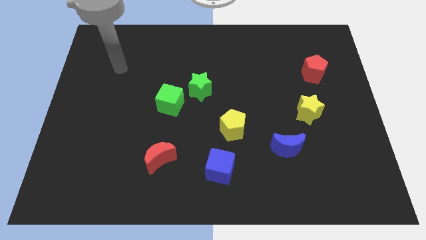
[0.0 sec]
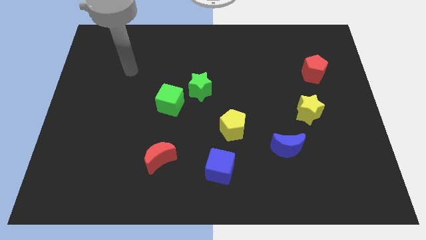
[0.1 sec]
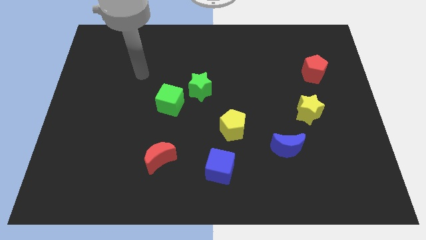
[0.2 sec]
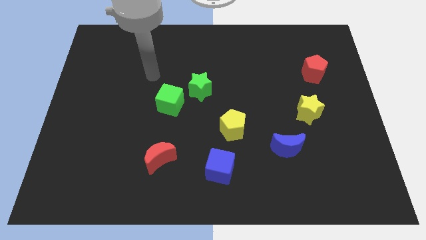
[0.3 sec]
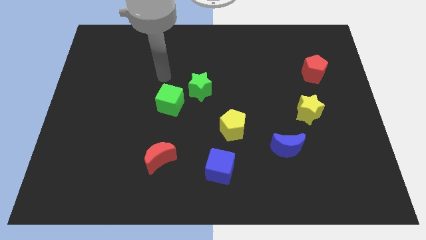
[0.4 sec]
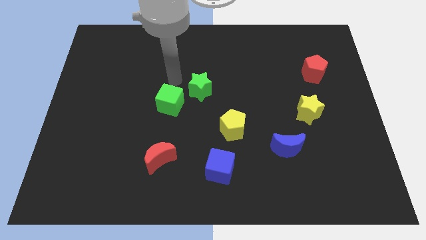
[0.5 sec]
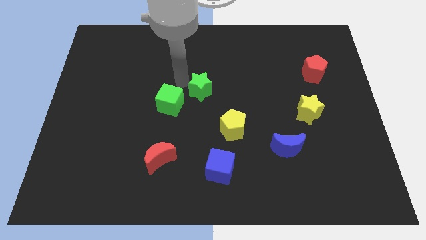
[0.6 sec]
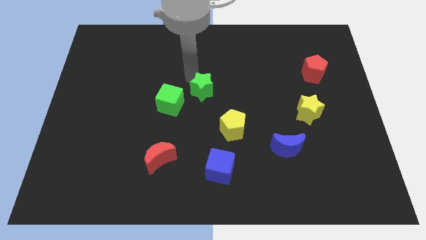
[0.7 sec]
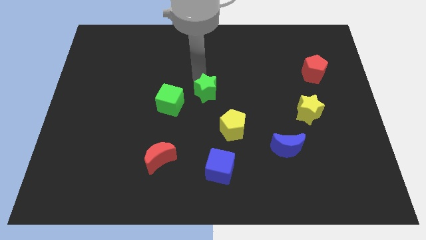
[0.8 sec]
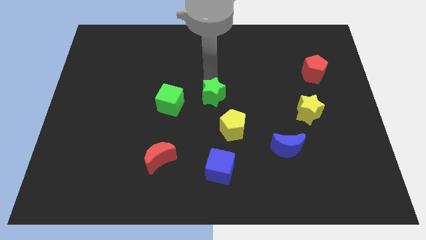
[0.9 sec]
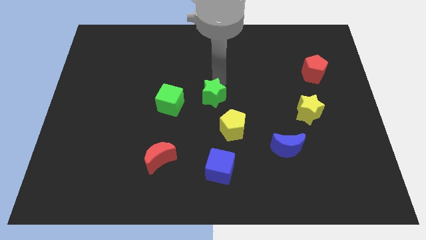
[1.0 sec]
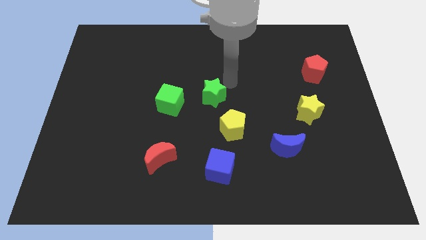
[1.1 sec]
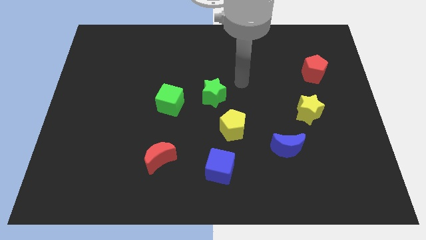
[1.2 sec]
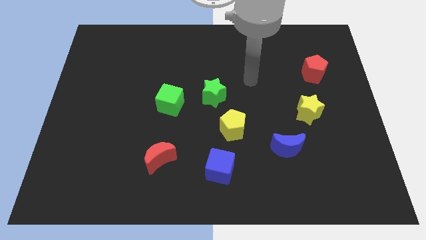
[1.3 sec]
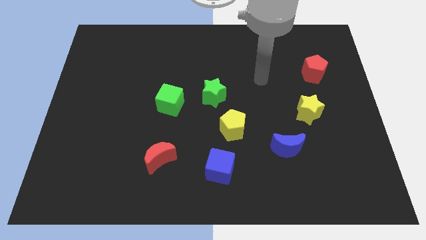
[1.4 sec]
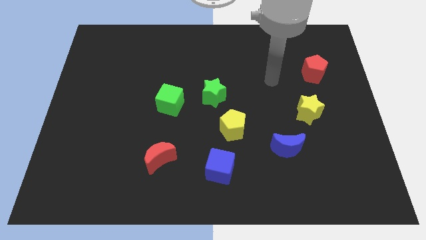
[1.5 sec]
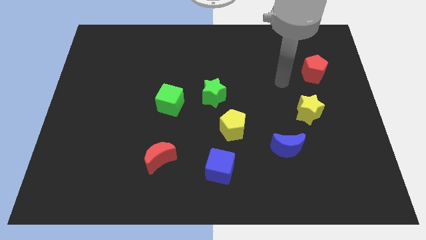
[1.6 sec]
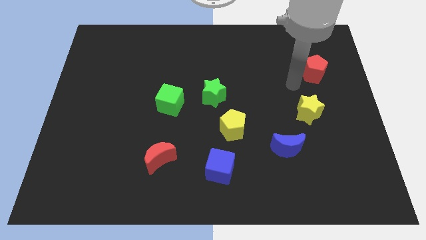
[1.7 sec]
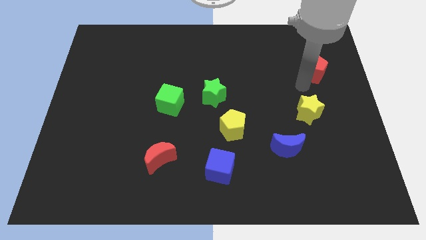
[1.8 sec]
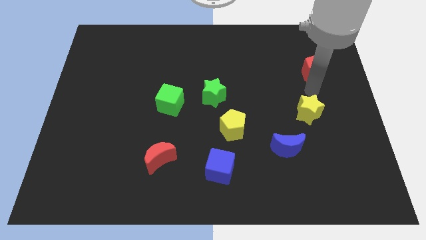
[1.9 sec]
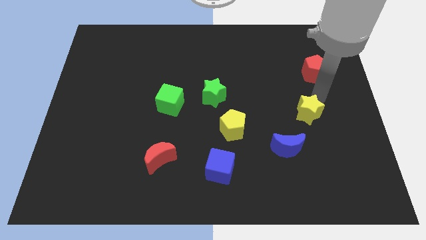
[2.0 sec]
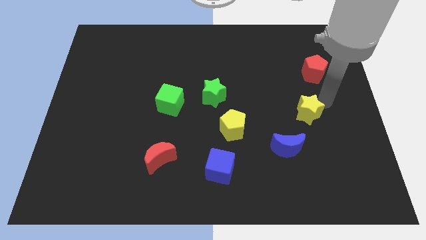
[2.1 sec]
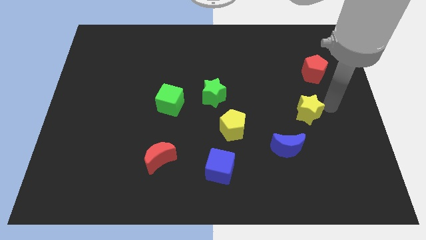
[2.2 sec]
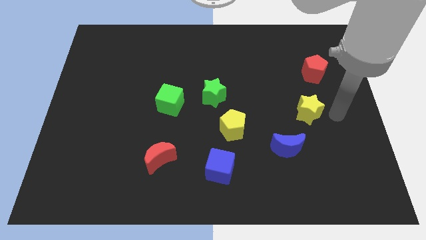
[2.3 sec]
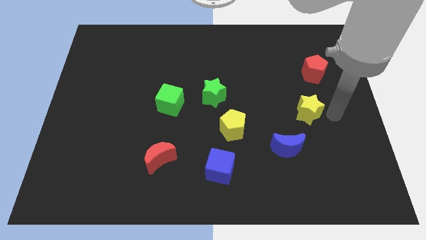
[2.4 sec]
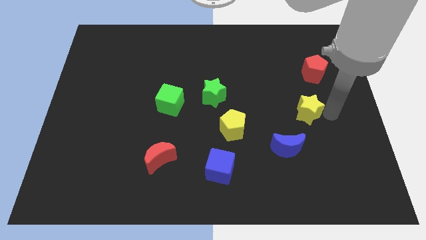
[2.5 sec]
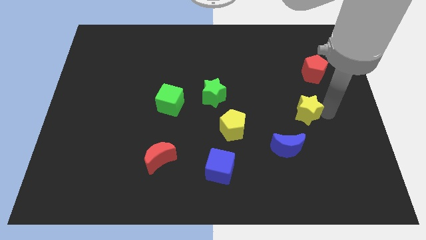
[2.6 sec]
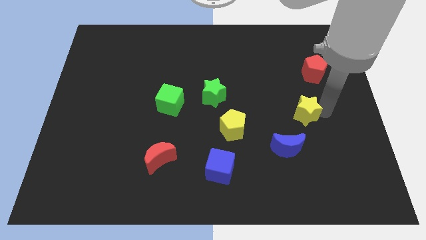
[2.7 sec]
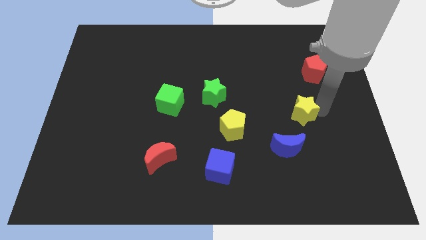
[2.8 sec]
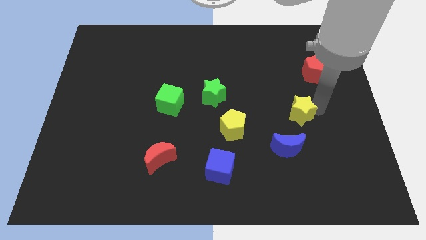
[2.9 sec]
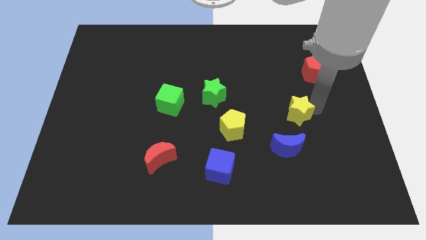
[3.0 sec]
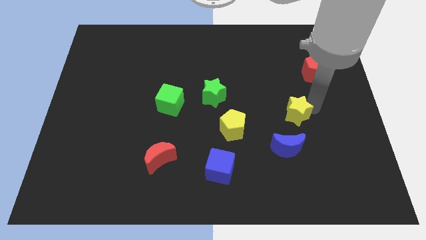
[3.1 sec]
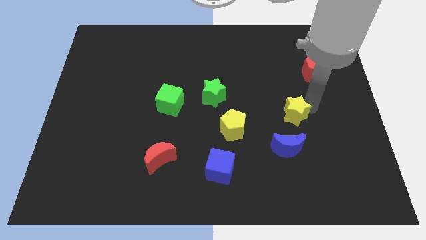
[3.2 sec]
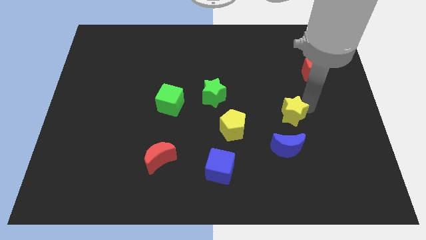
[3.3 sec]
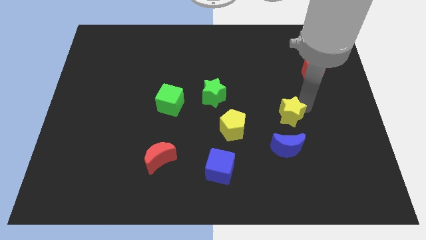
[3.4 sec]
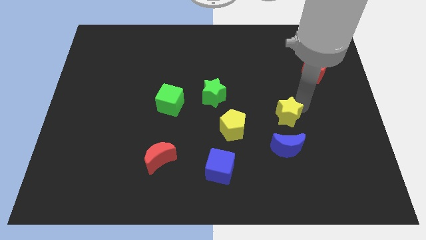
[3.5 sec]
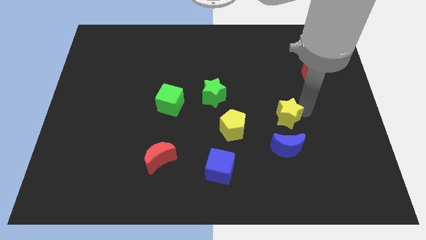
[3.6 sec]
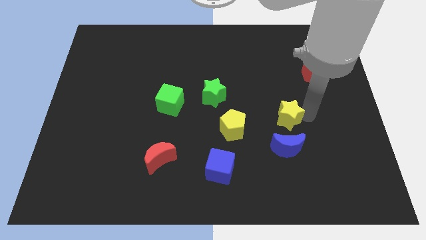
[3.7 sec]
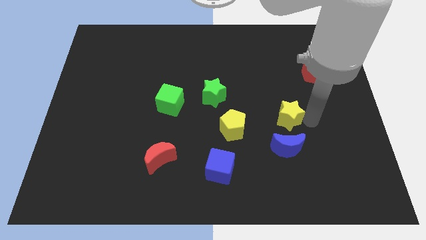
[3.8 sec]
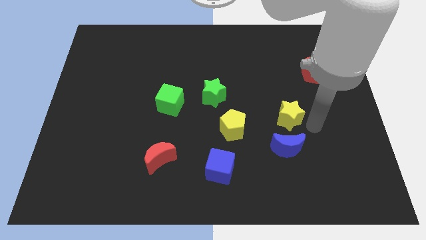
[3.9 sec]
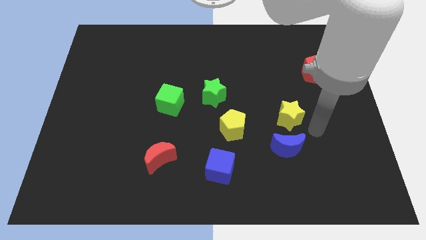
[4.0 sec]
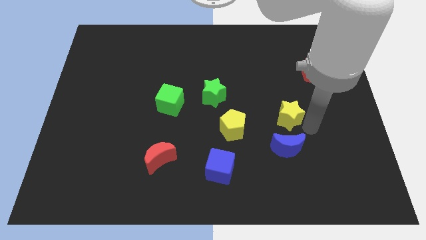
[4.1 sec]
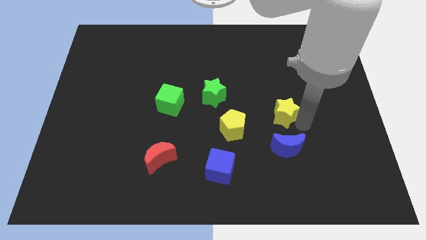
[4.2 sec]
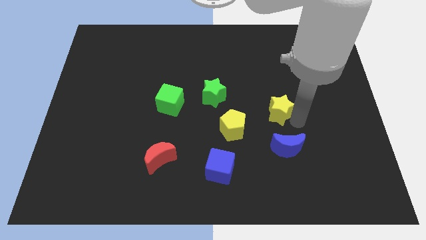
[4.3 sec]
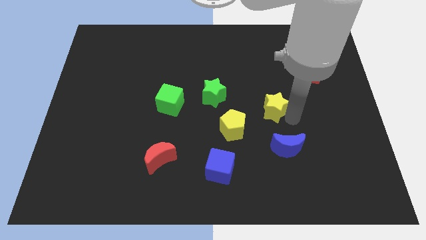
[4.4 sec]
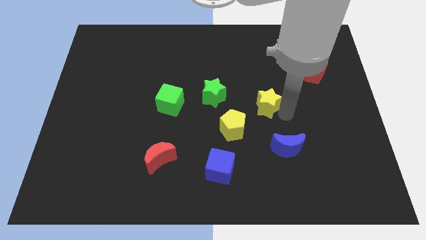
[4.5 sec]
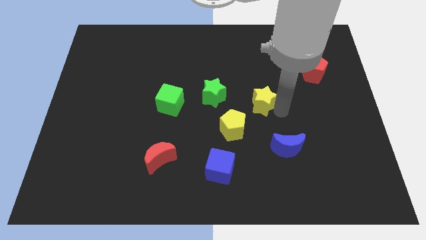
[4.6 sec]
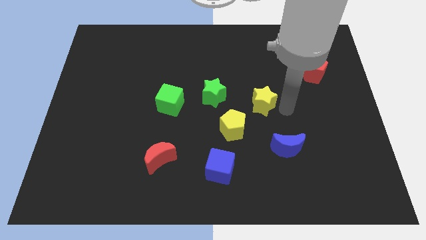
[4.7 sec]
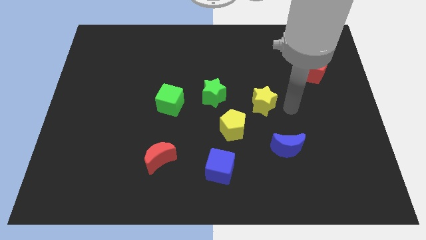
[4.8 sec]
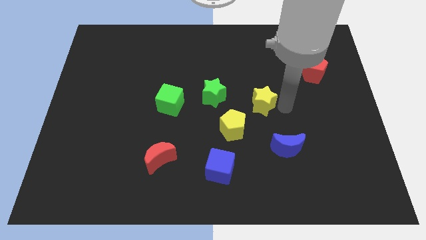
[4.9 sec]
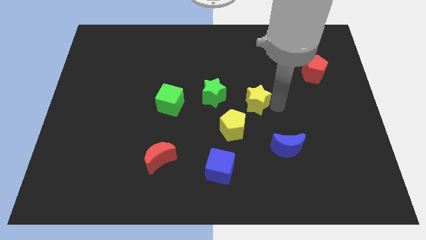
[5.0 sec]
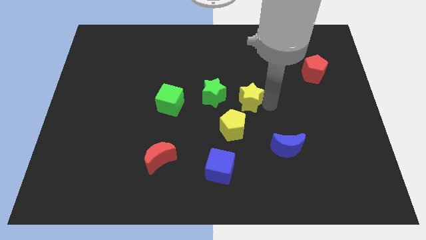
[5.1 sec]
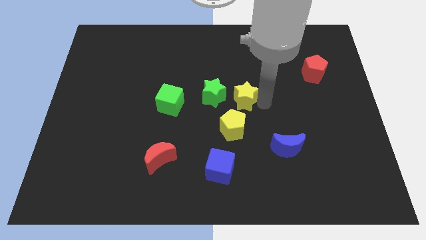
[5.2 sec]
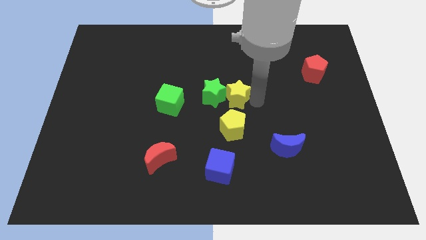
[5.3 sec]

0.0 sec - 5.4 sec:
push the yellow star towards the green star

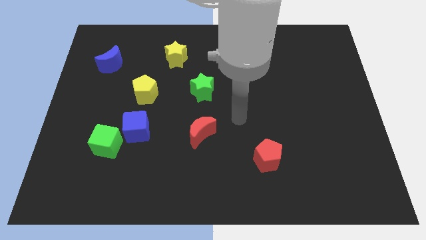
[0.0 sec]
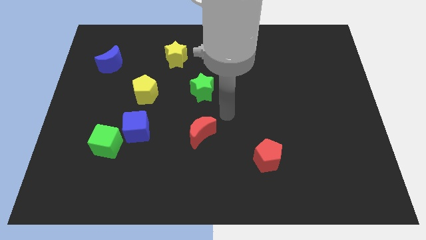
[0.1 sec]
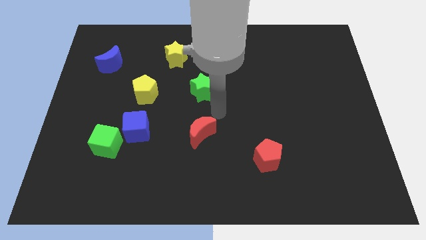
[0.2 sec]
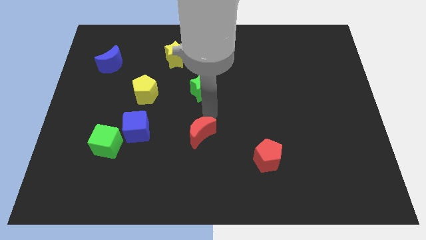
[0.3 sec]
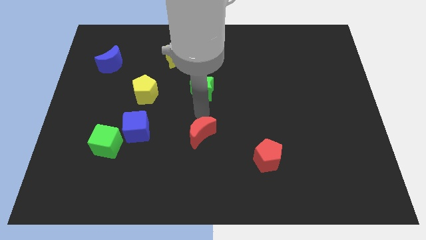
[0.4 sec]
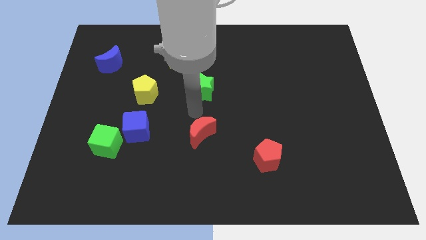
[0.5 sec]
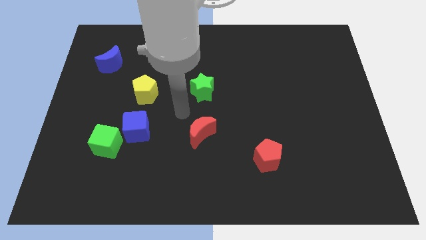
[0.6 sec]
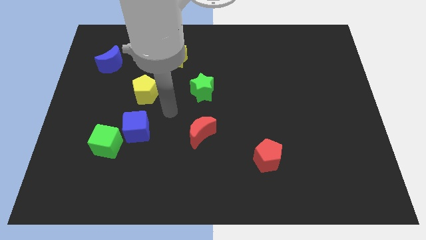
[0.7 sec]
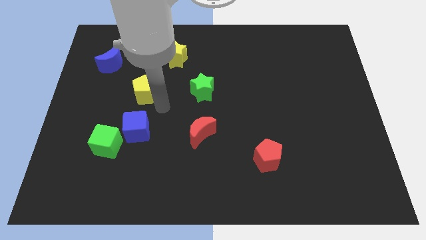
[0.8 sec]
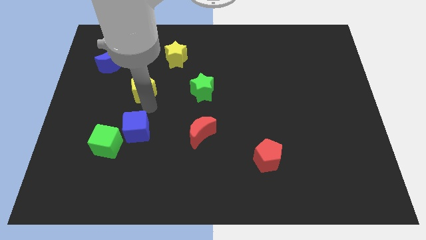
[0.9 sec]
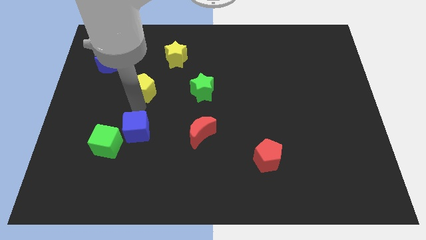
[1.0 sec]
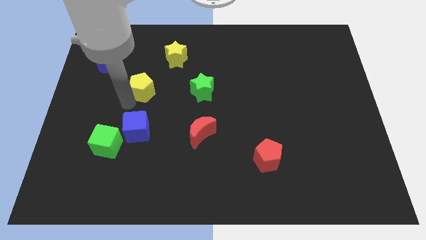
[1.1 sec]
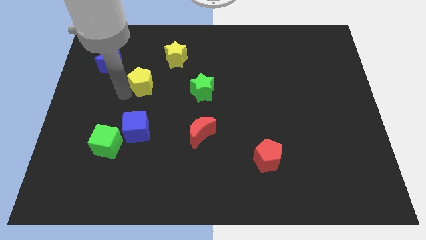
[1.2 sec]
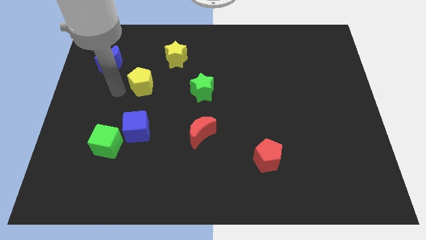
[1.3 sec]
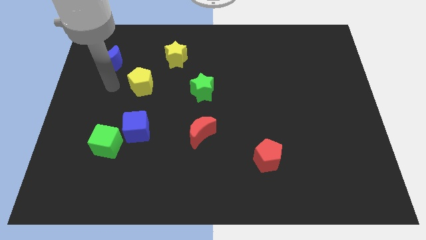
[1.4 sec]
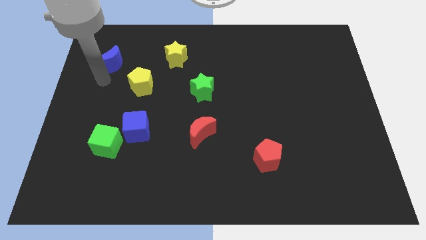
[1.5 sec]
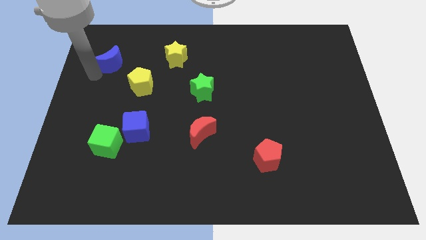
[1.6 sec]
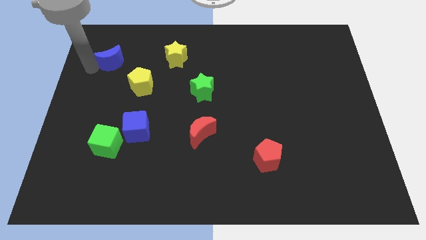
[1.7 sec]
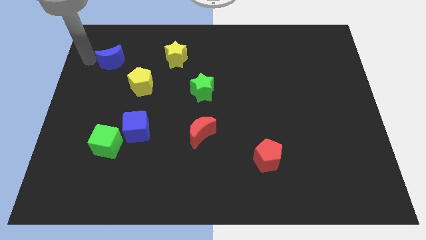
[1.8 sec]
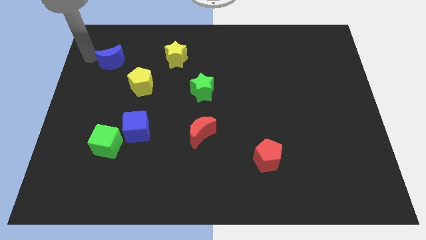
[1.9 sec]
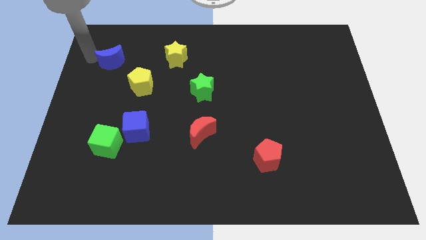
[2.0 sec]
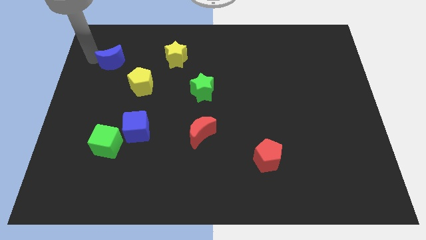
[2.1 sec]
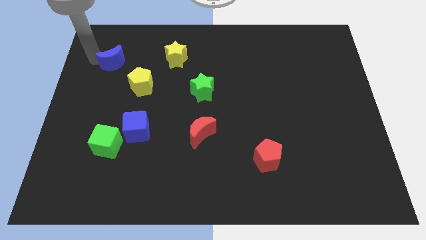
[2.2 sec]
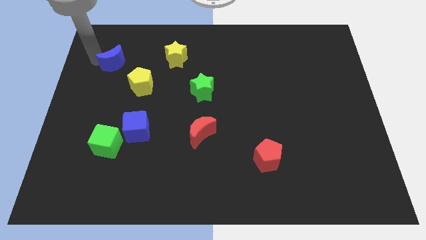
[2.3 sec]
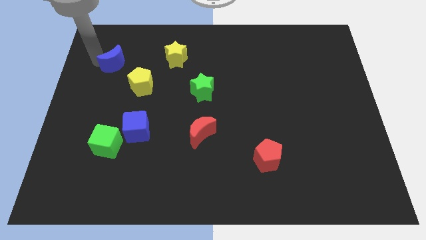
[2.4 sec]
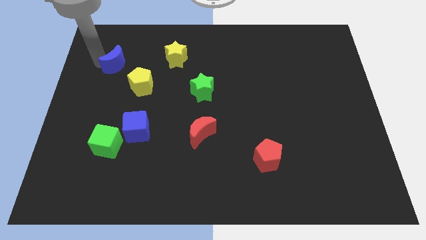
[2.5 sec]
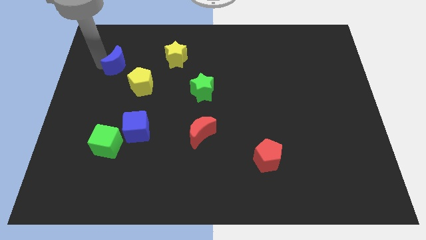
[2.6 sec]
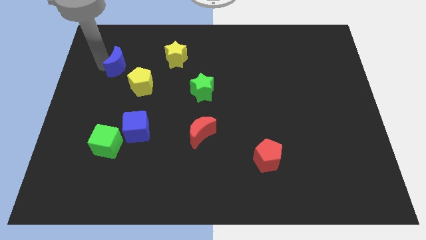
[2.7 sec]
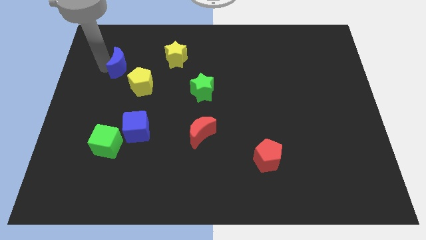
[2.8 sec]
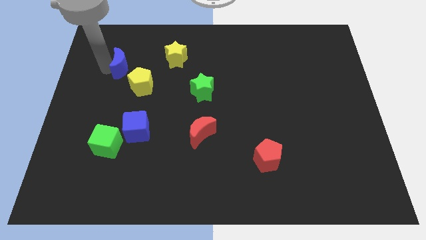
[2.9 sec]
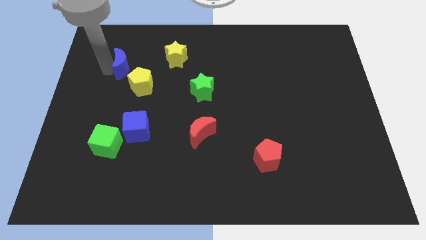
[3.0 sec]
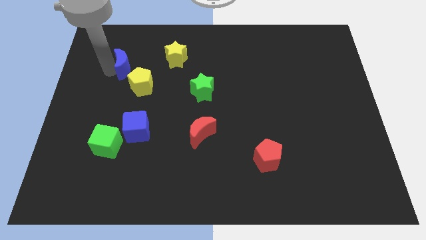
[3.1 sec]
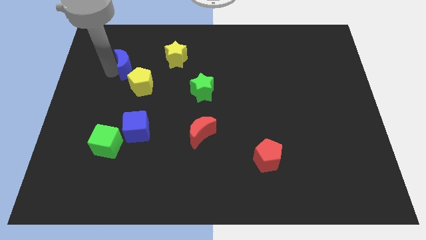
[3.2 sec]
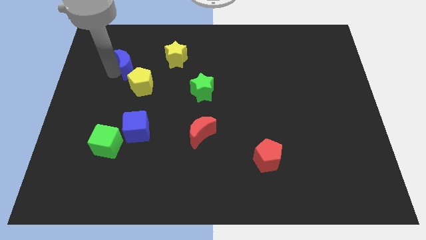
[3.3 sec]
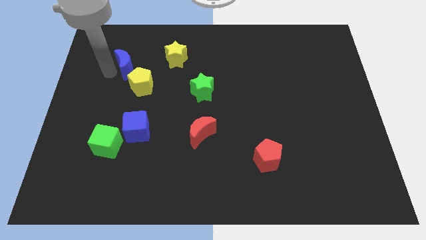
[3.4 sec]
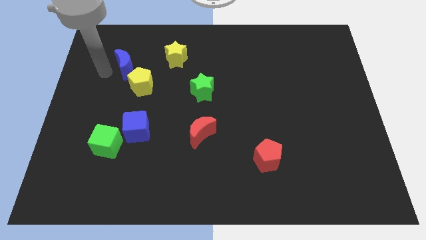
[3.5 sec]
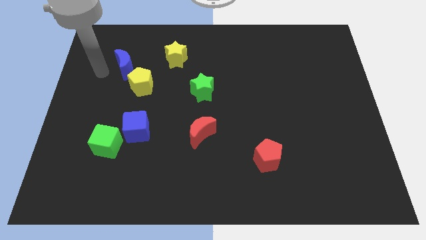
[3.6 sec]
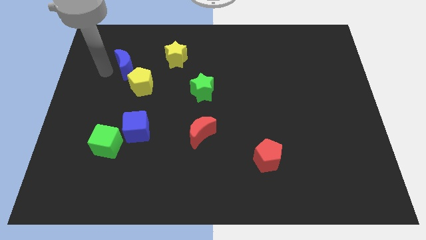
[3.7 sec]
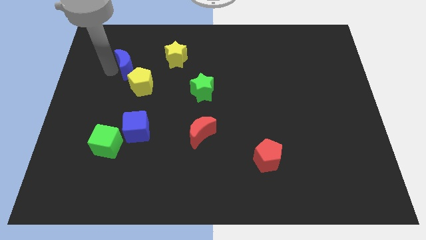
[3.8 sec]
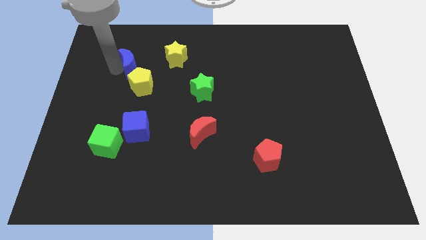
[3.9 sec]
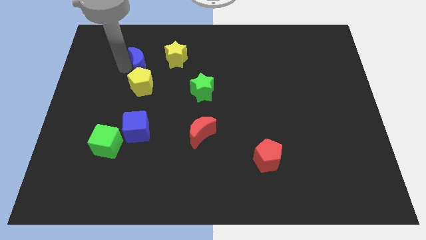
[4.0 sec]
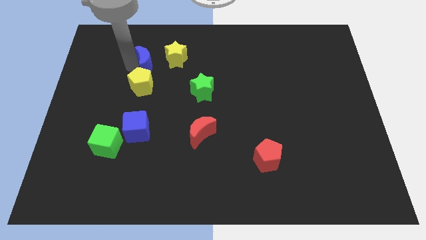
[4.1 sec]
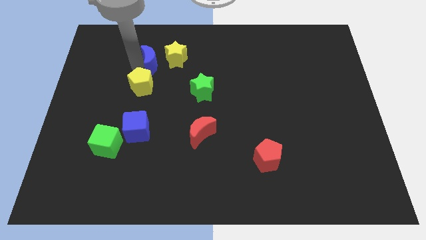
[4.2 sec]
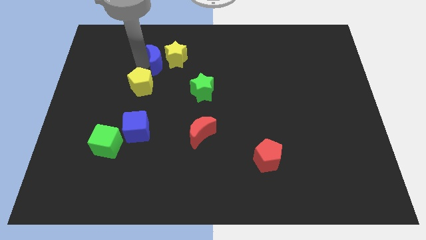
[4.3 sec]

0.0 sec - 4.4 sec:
slide the blue moon to the yellow star
